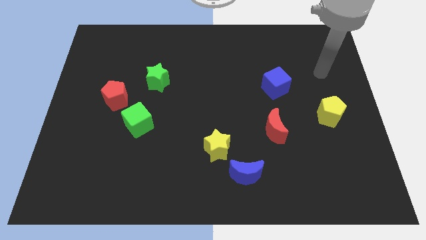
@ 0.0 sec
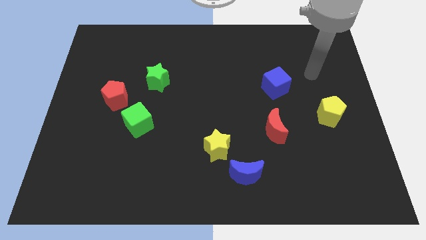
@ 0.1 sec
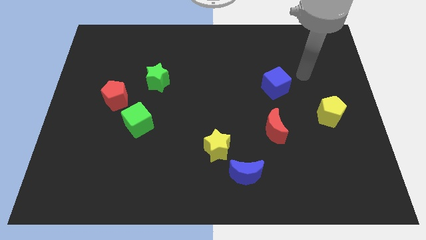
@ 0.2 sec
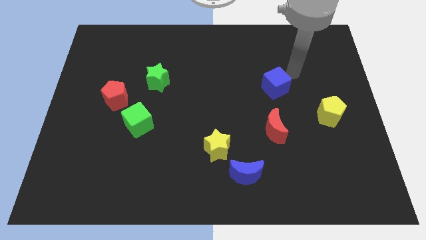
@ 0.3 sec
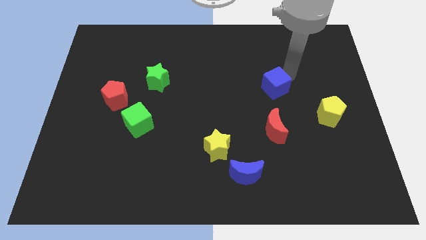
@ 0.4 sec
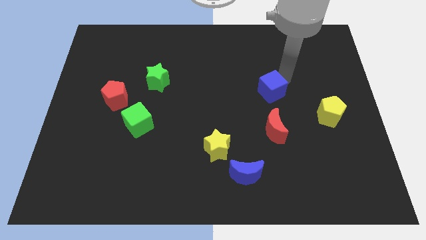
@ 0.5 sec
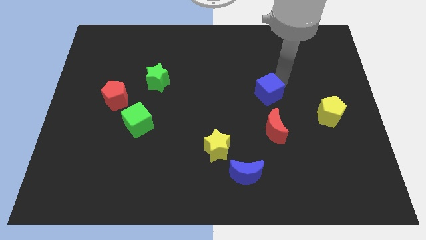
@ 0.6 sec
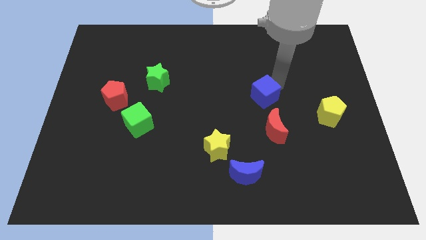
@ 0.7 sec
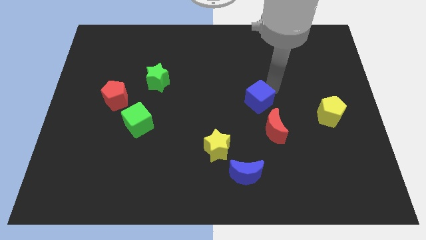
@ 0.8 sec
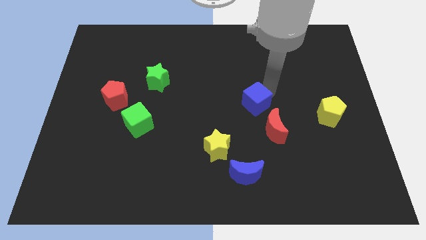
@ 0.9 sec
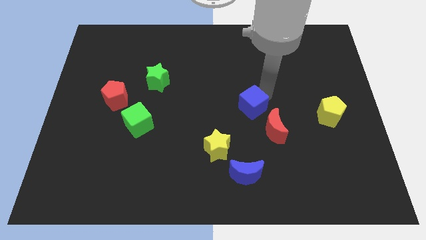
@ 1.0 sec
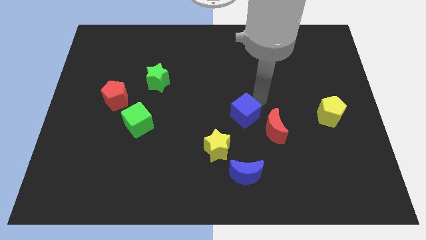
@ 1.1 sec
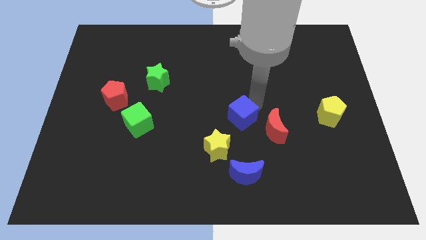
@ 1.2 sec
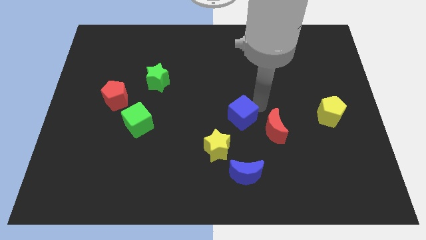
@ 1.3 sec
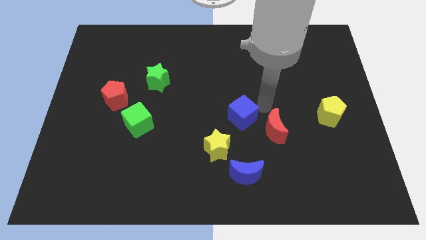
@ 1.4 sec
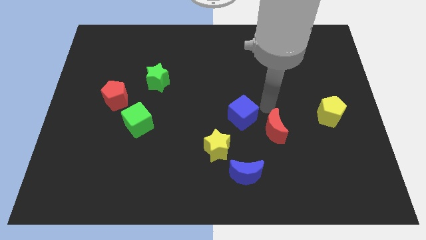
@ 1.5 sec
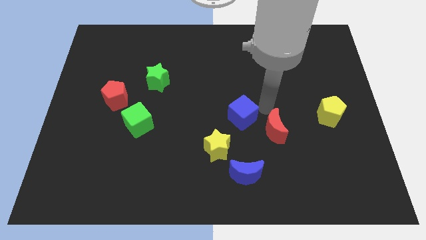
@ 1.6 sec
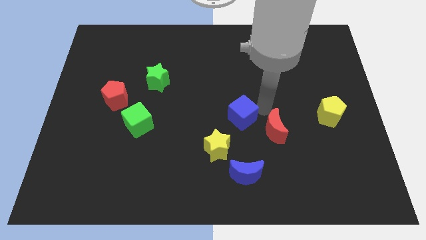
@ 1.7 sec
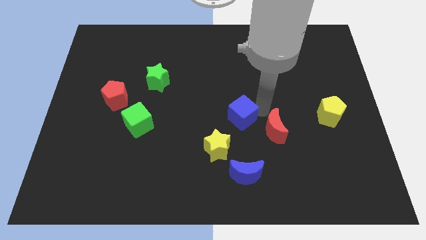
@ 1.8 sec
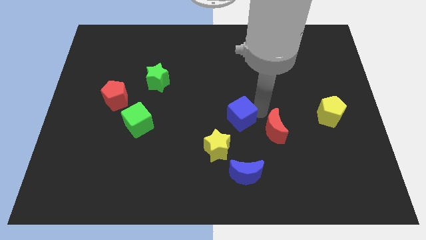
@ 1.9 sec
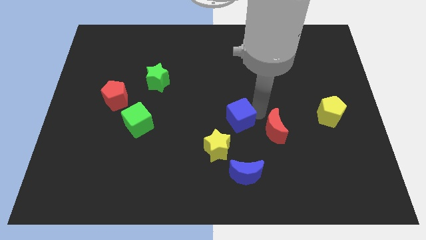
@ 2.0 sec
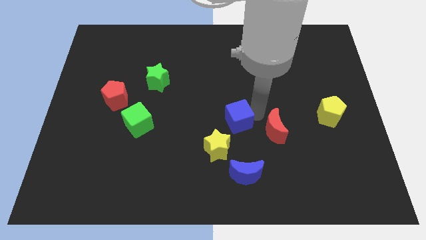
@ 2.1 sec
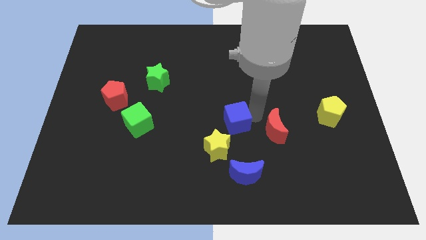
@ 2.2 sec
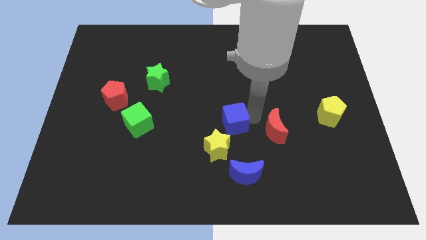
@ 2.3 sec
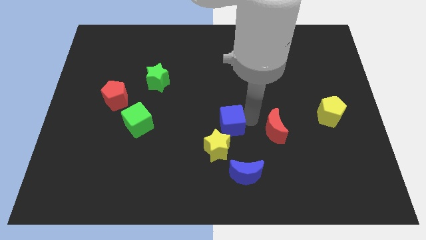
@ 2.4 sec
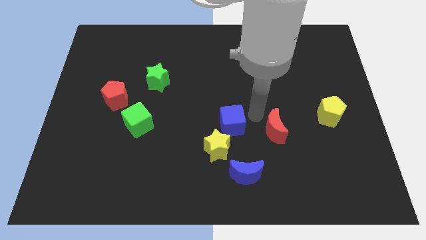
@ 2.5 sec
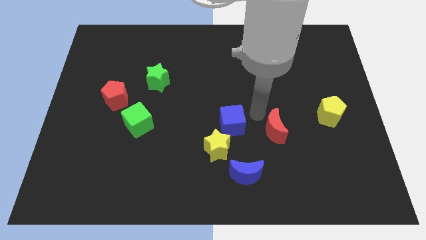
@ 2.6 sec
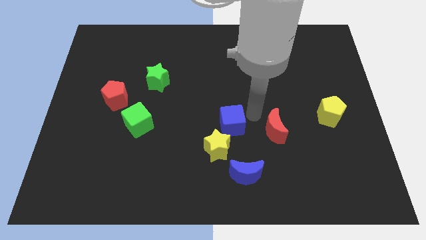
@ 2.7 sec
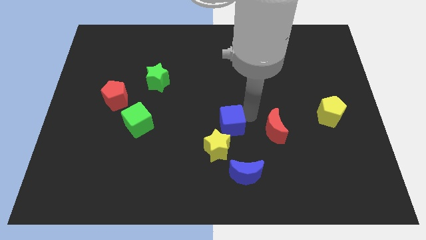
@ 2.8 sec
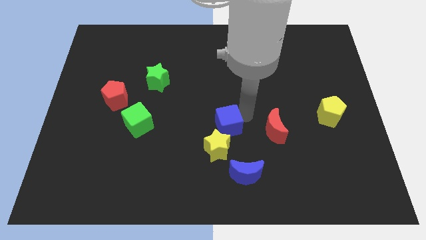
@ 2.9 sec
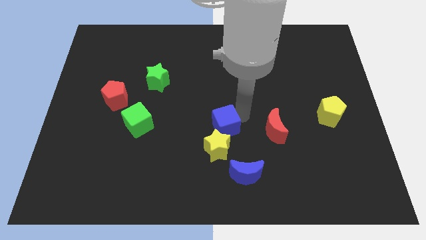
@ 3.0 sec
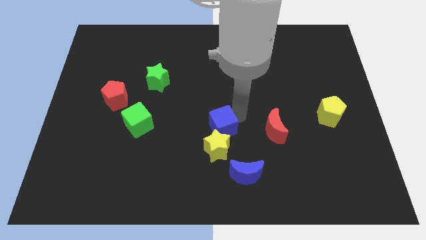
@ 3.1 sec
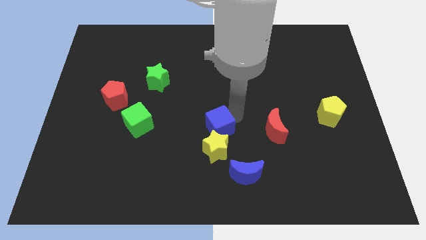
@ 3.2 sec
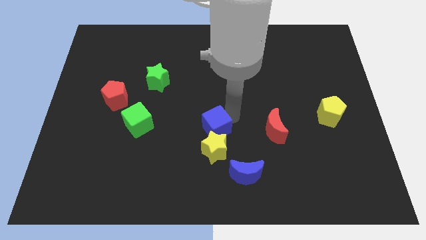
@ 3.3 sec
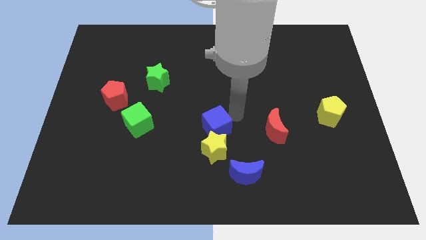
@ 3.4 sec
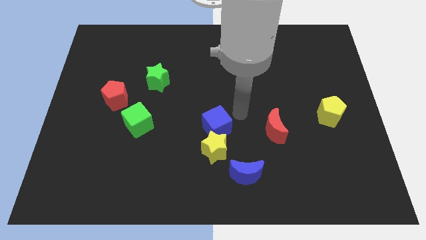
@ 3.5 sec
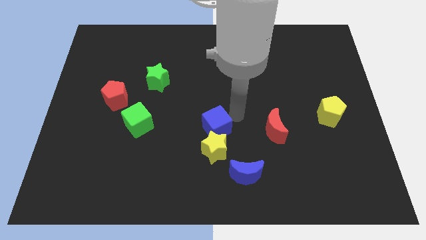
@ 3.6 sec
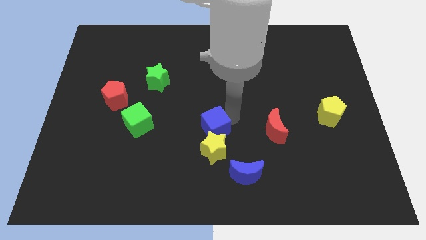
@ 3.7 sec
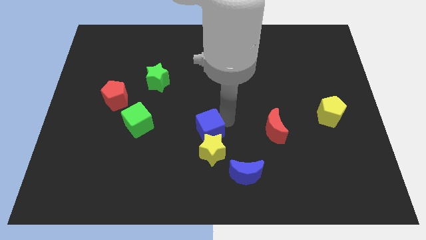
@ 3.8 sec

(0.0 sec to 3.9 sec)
slide the blue cube diagonally downwards and left

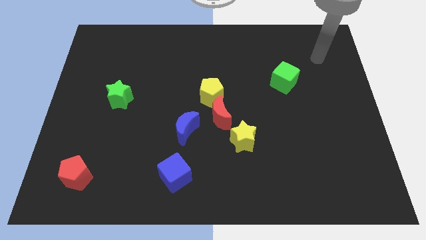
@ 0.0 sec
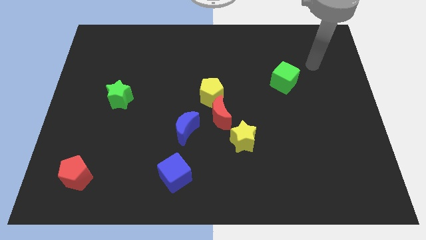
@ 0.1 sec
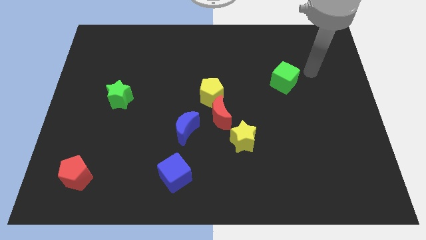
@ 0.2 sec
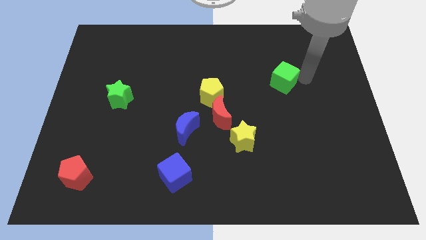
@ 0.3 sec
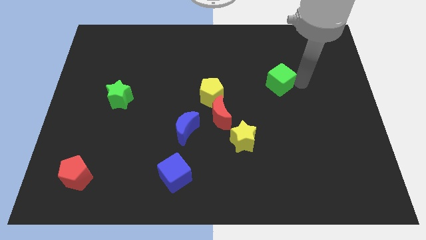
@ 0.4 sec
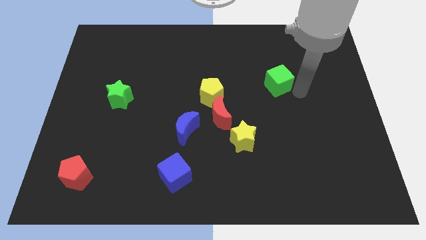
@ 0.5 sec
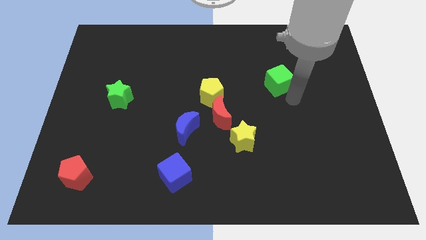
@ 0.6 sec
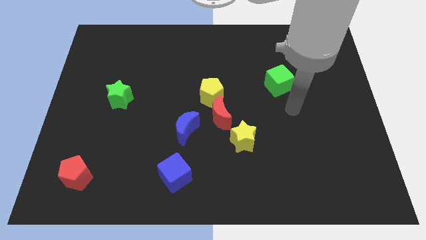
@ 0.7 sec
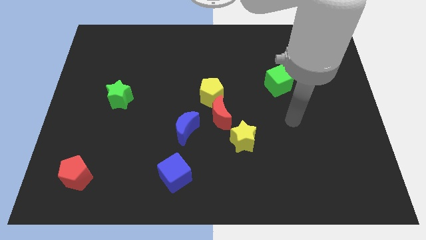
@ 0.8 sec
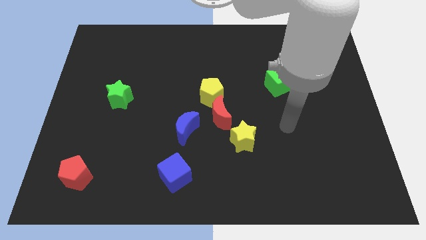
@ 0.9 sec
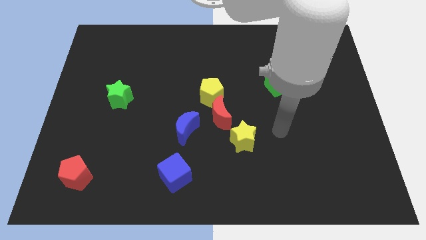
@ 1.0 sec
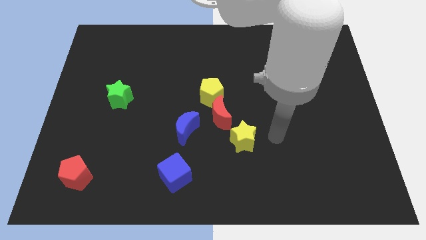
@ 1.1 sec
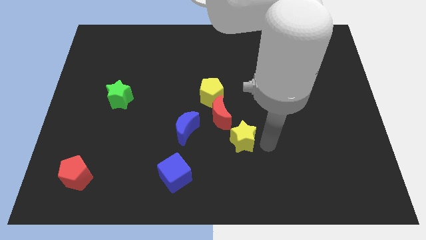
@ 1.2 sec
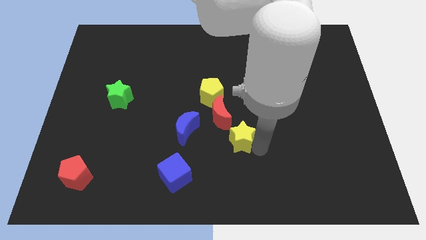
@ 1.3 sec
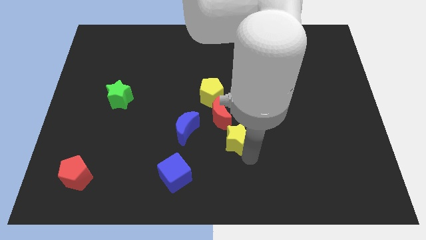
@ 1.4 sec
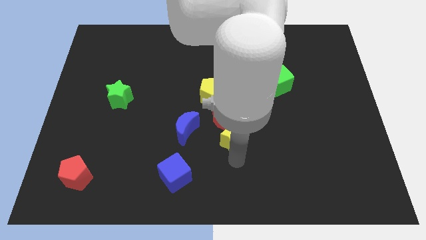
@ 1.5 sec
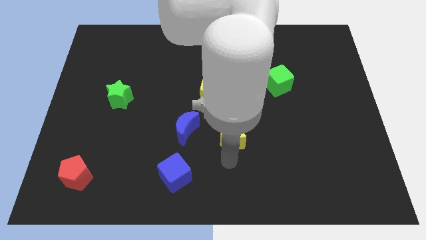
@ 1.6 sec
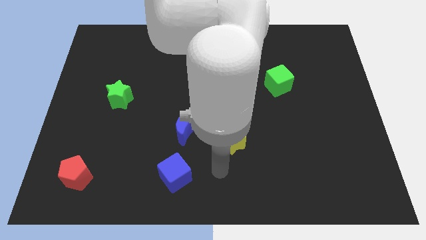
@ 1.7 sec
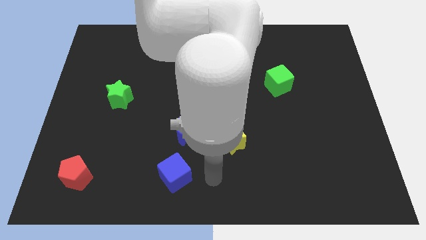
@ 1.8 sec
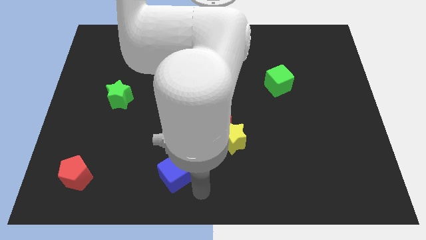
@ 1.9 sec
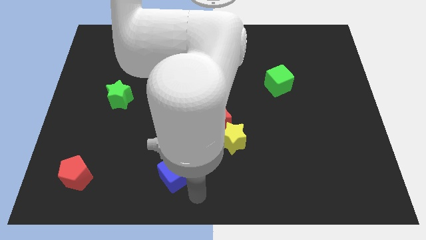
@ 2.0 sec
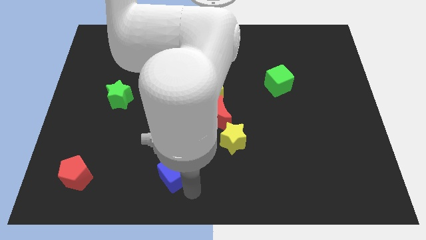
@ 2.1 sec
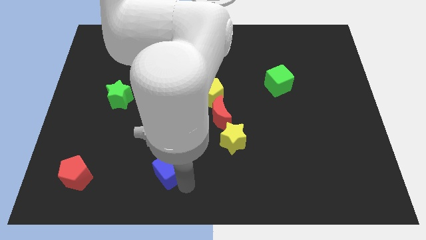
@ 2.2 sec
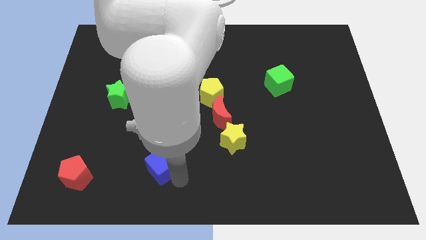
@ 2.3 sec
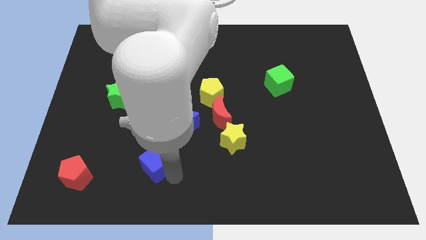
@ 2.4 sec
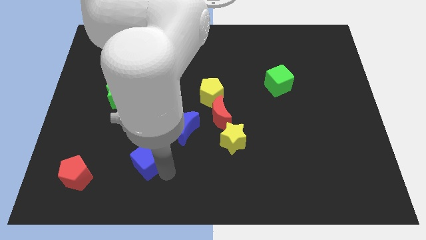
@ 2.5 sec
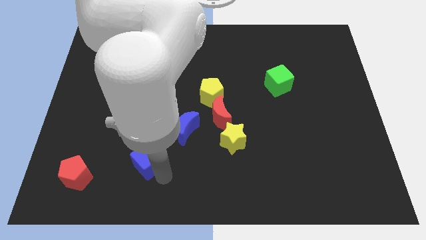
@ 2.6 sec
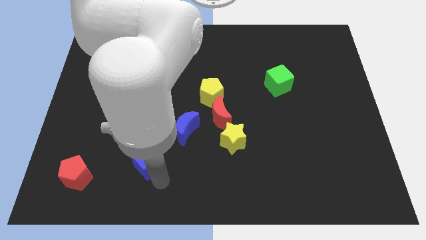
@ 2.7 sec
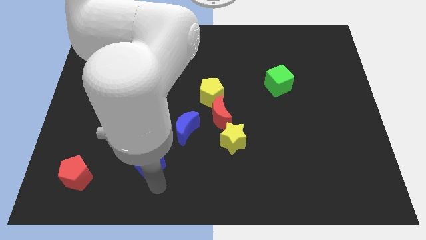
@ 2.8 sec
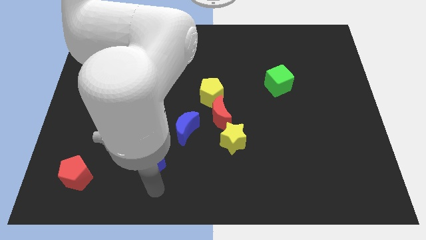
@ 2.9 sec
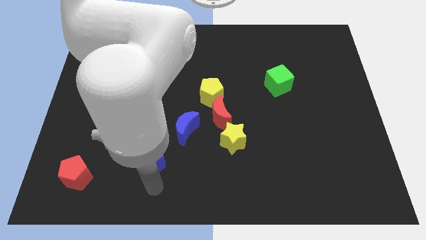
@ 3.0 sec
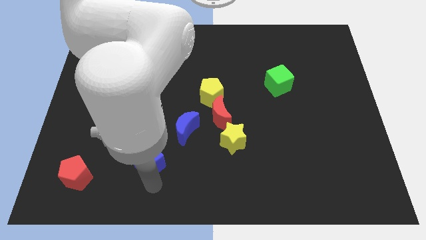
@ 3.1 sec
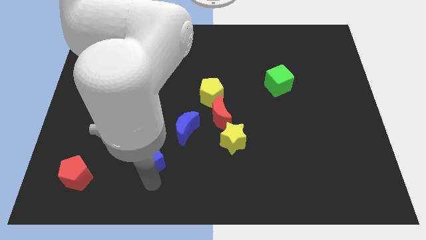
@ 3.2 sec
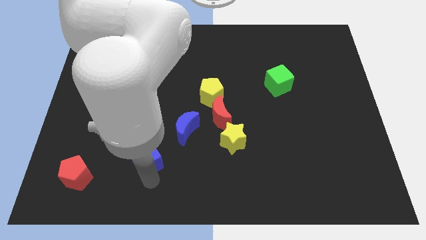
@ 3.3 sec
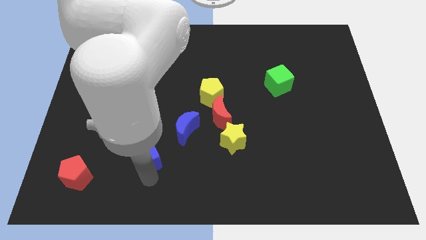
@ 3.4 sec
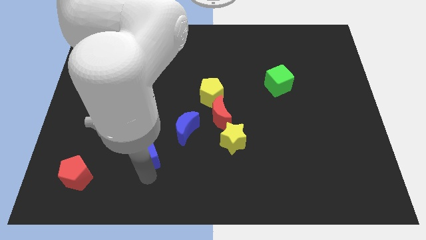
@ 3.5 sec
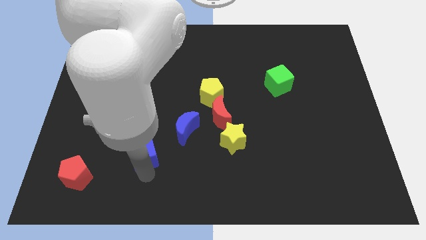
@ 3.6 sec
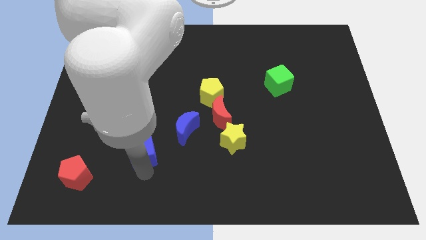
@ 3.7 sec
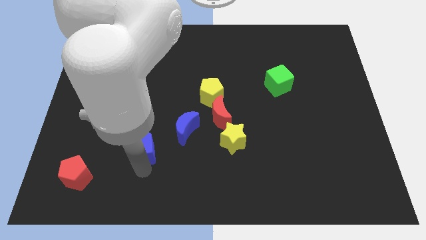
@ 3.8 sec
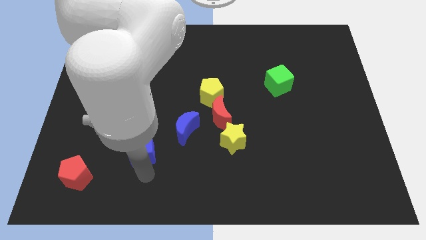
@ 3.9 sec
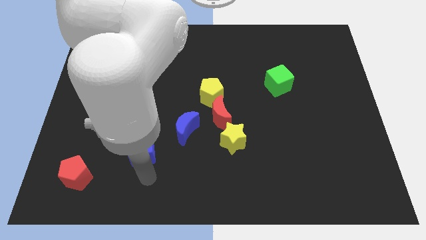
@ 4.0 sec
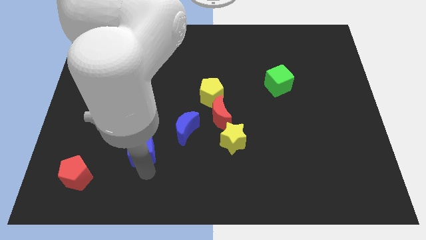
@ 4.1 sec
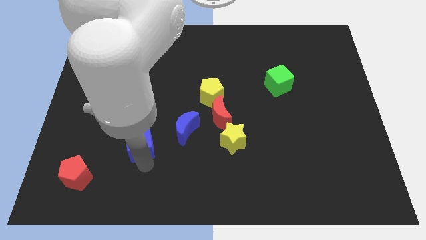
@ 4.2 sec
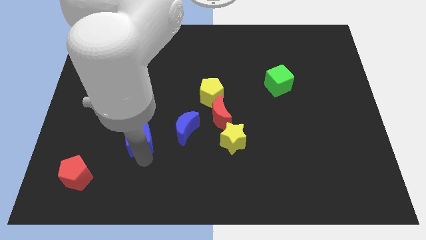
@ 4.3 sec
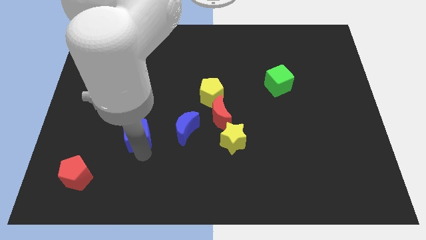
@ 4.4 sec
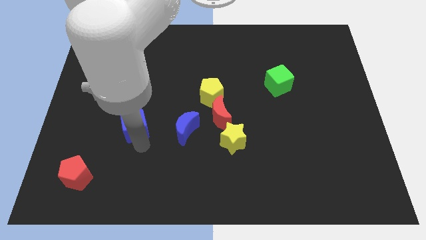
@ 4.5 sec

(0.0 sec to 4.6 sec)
slightly push the blue cube up
